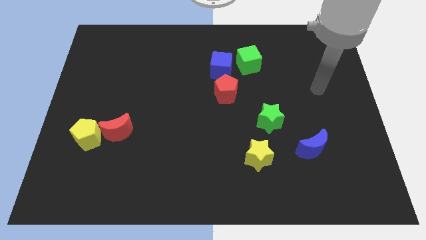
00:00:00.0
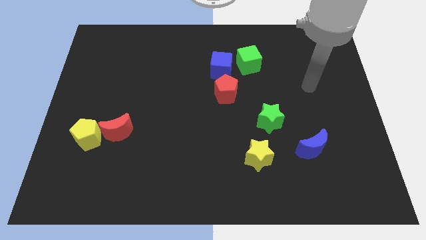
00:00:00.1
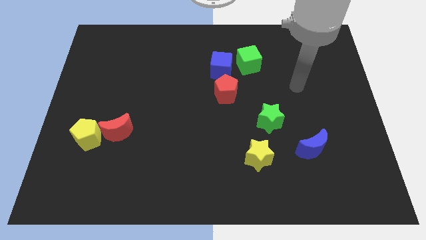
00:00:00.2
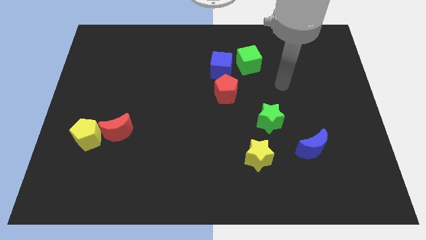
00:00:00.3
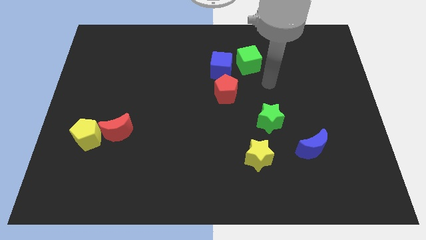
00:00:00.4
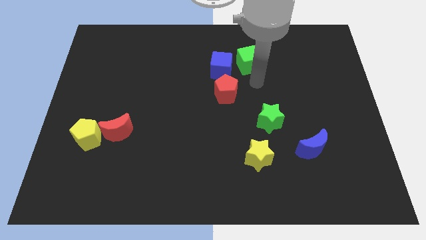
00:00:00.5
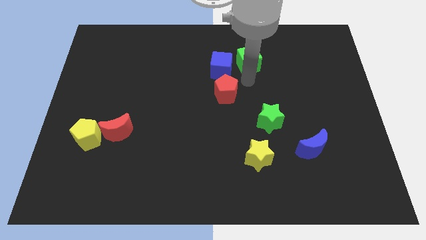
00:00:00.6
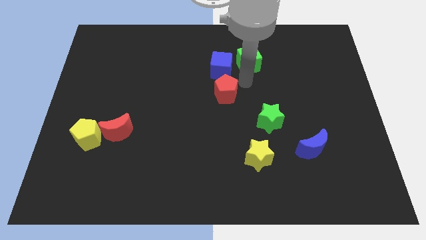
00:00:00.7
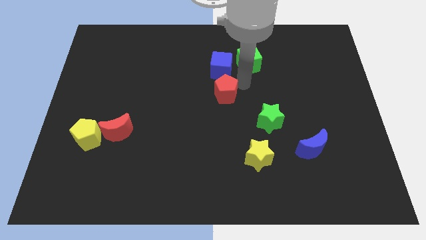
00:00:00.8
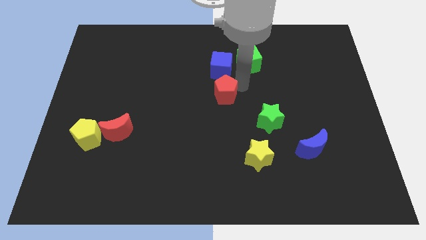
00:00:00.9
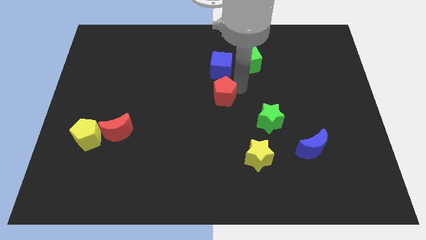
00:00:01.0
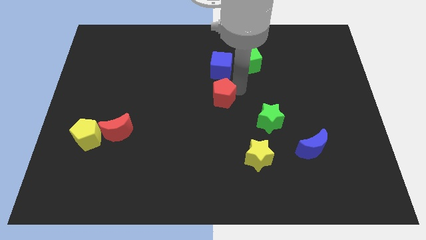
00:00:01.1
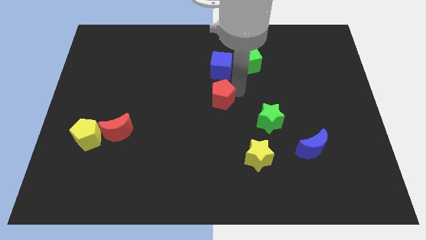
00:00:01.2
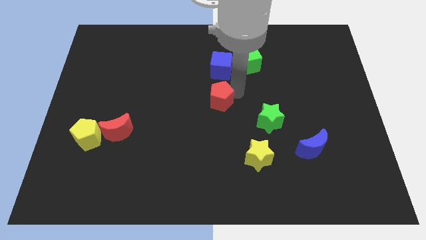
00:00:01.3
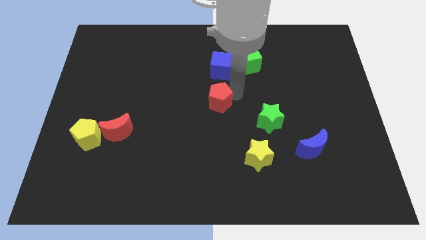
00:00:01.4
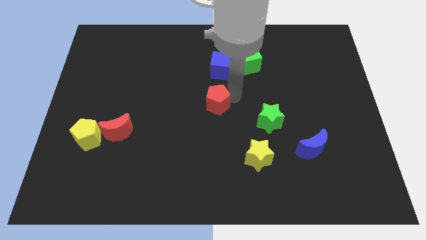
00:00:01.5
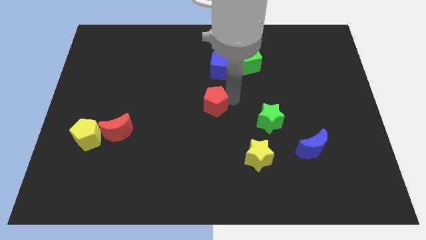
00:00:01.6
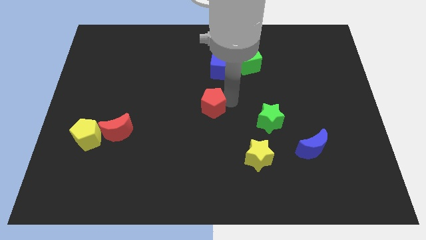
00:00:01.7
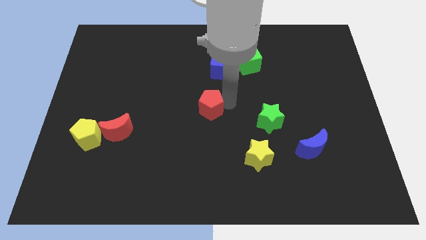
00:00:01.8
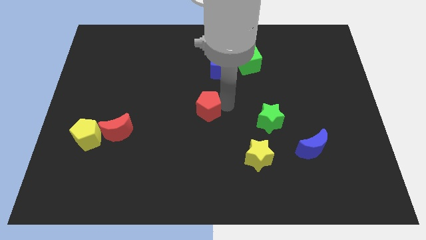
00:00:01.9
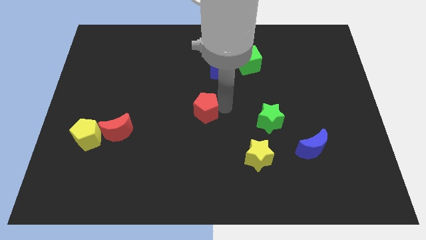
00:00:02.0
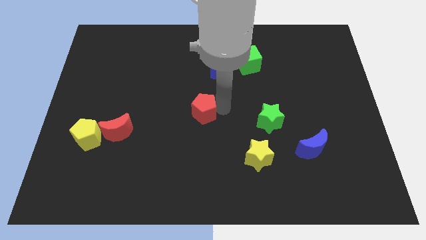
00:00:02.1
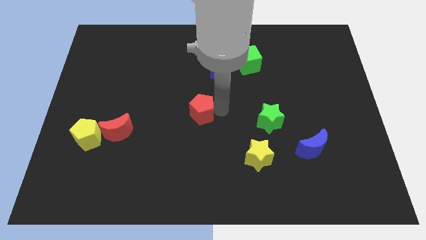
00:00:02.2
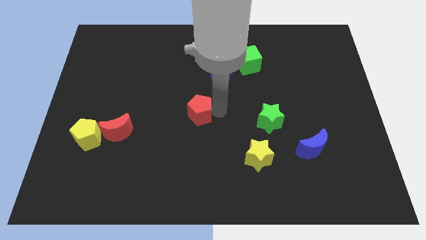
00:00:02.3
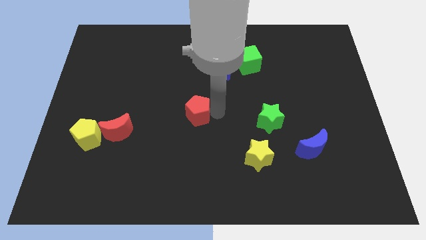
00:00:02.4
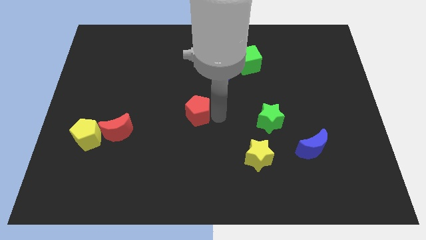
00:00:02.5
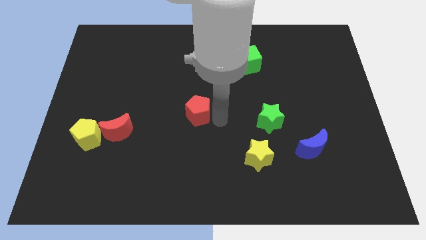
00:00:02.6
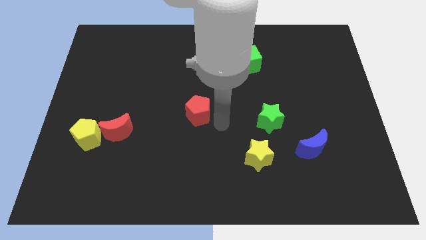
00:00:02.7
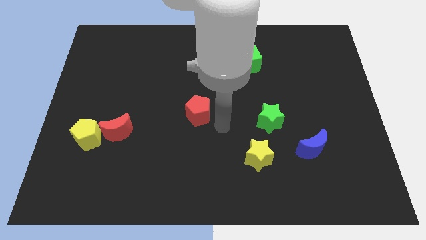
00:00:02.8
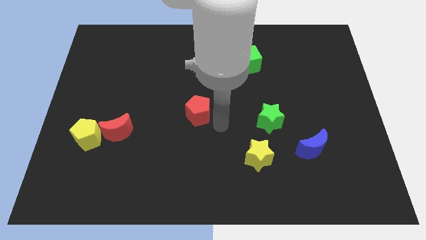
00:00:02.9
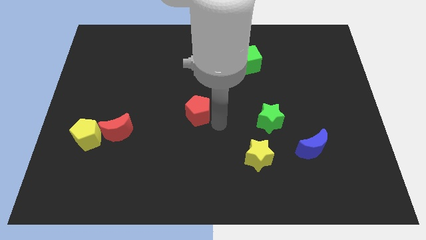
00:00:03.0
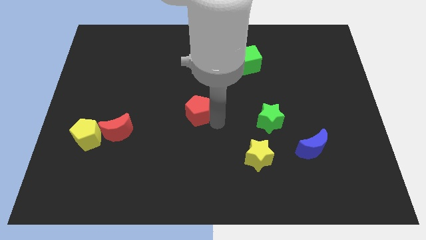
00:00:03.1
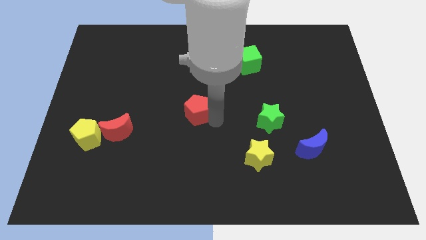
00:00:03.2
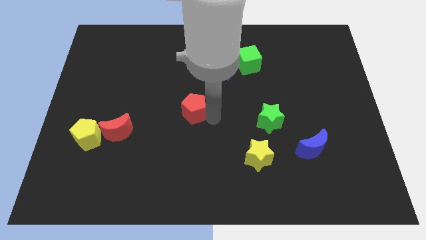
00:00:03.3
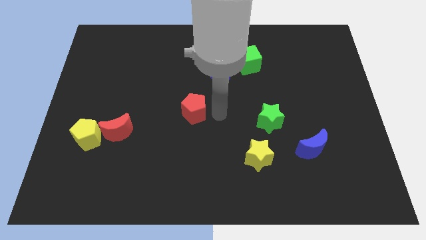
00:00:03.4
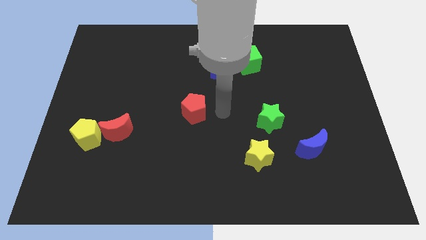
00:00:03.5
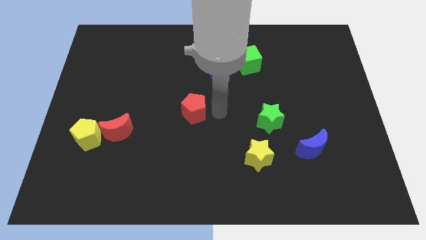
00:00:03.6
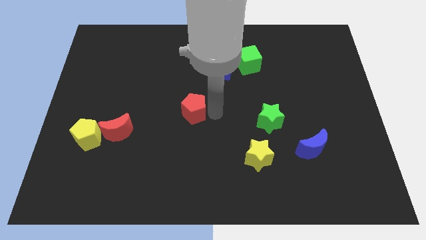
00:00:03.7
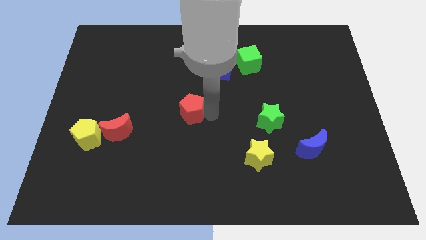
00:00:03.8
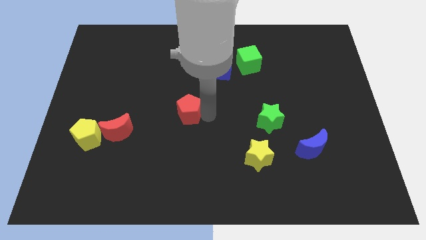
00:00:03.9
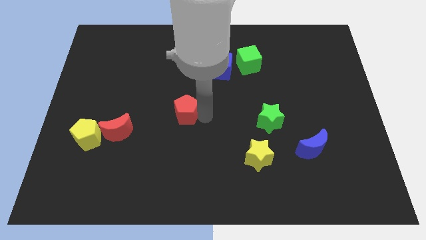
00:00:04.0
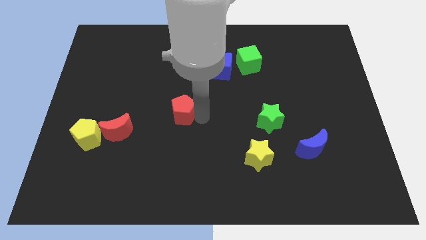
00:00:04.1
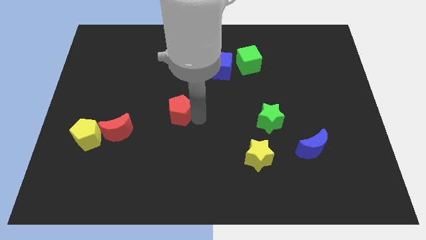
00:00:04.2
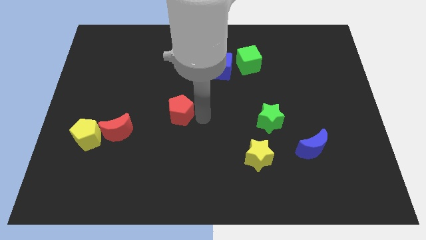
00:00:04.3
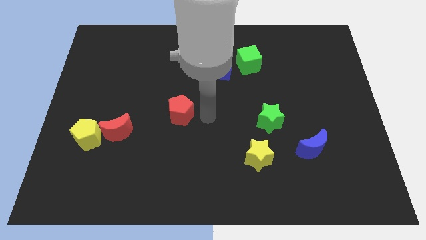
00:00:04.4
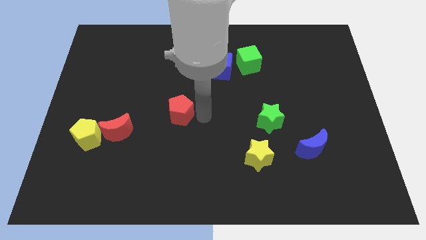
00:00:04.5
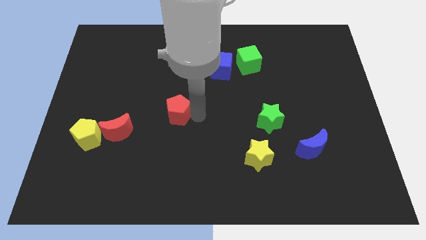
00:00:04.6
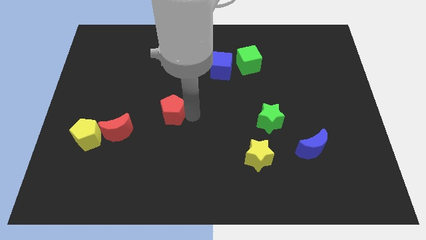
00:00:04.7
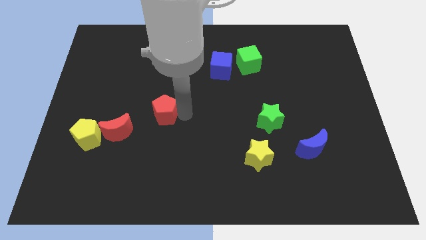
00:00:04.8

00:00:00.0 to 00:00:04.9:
slide the red pentagon to the top right side of the red moon

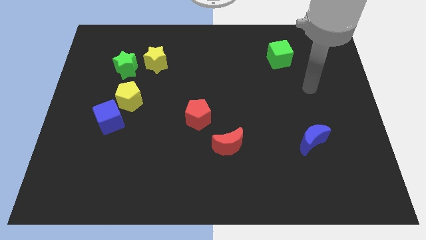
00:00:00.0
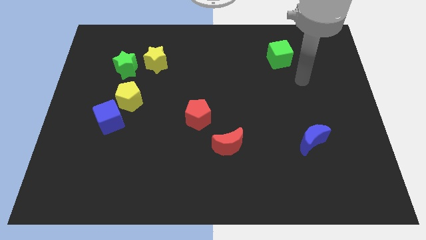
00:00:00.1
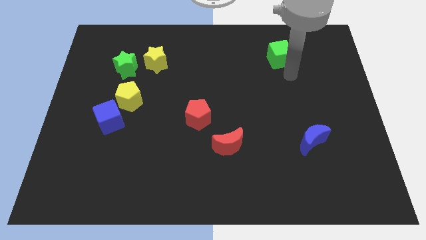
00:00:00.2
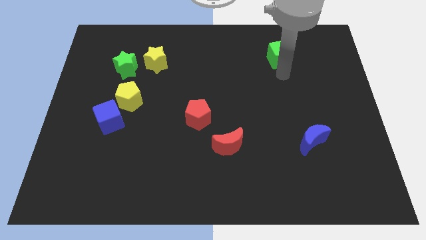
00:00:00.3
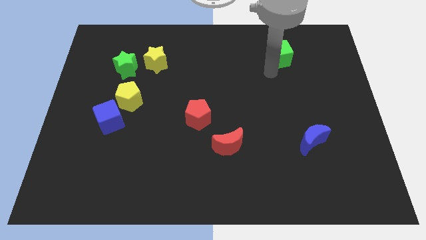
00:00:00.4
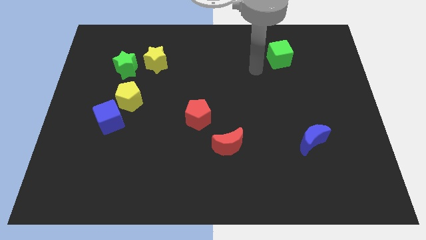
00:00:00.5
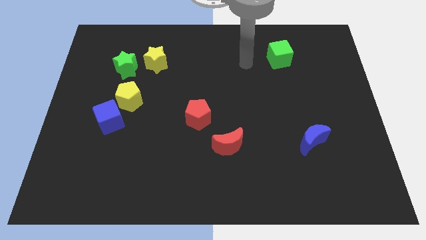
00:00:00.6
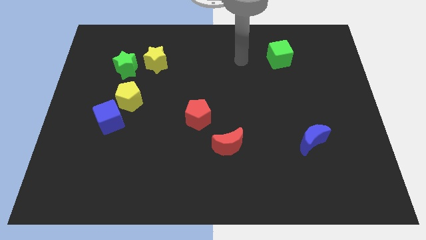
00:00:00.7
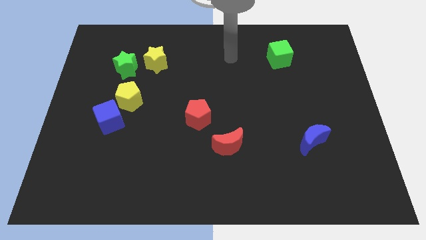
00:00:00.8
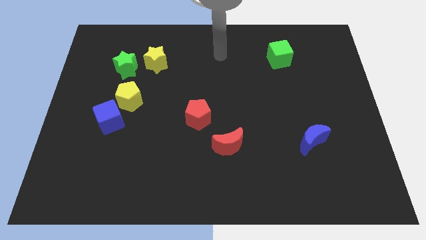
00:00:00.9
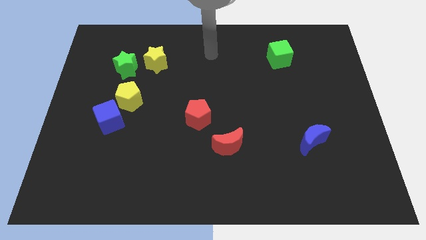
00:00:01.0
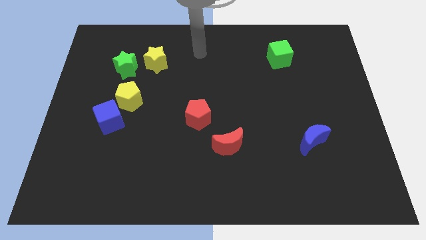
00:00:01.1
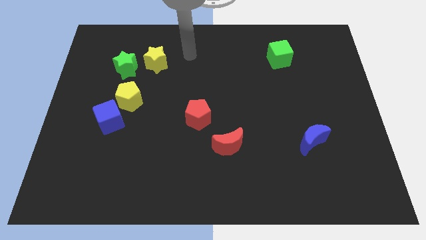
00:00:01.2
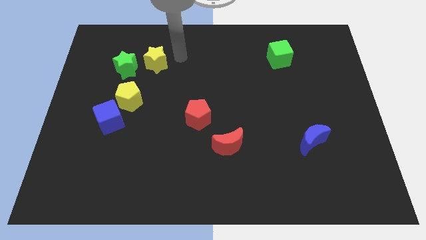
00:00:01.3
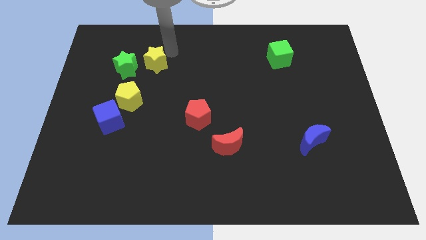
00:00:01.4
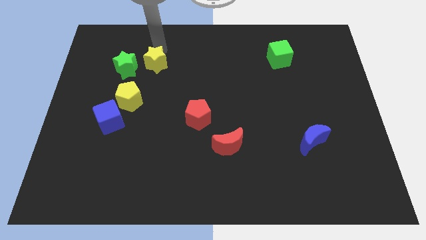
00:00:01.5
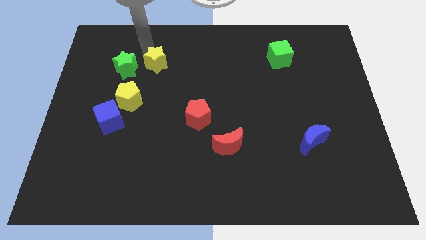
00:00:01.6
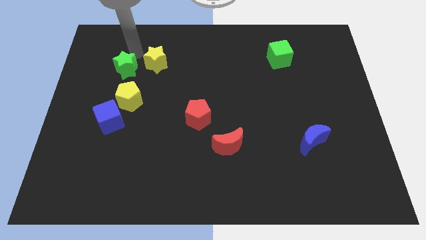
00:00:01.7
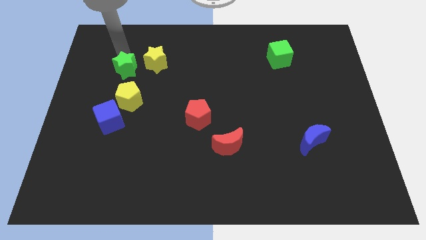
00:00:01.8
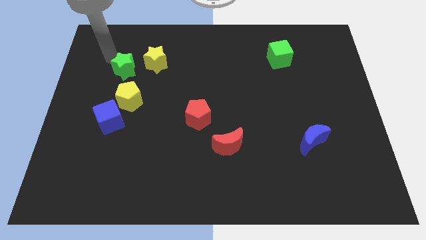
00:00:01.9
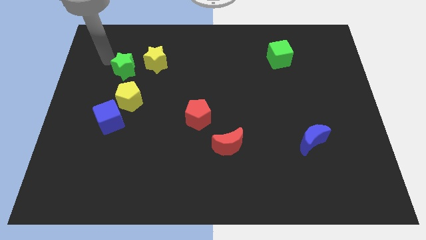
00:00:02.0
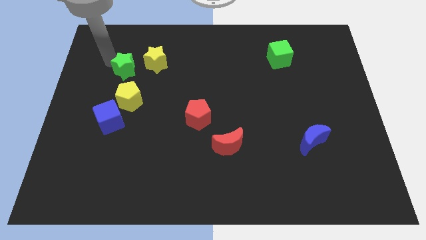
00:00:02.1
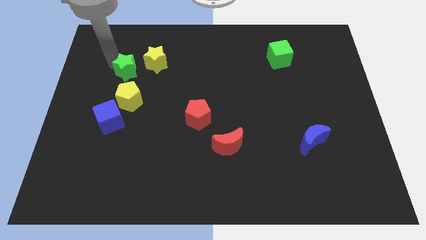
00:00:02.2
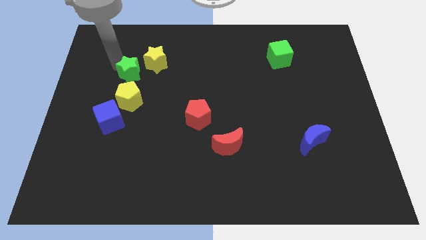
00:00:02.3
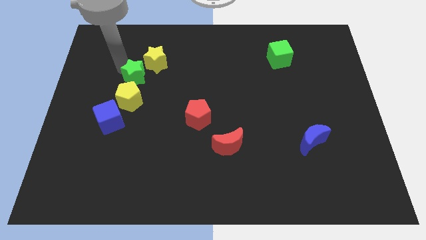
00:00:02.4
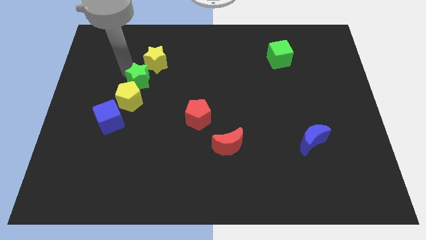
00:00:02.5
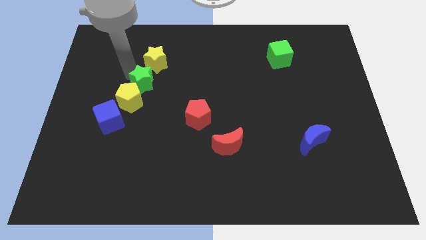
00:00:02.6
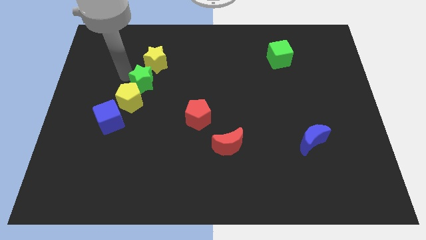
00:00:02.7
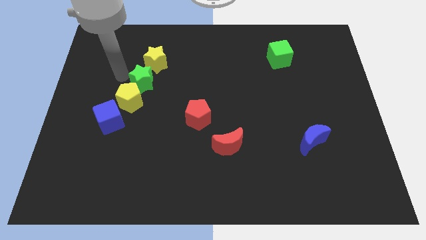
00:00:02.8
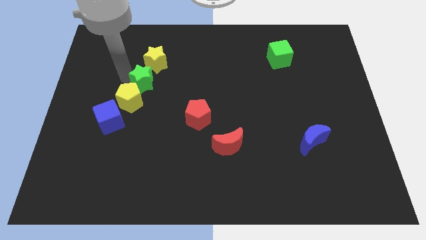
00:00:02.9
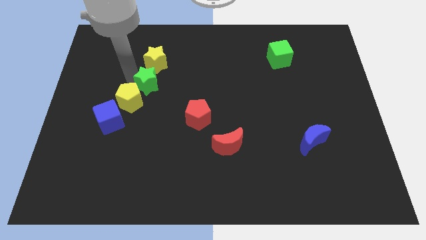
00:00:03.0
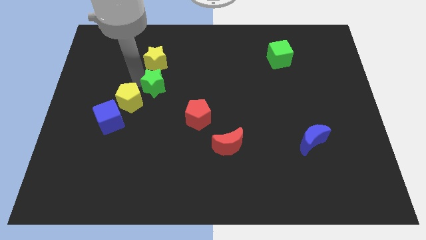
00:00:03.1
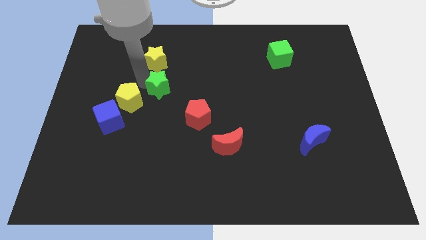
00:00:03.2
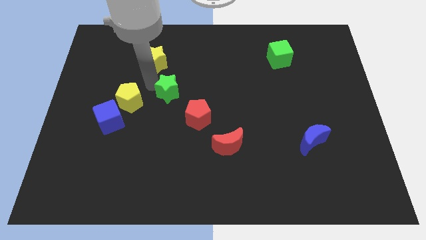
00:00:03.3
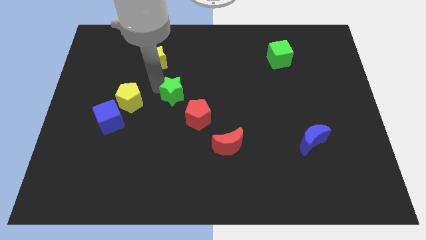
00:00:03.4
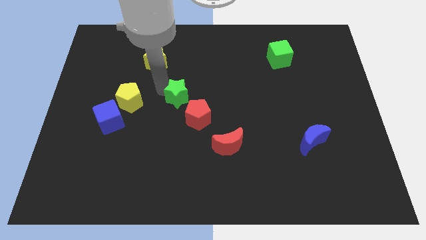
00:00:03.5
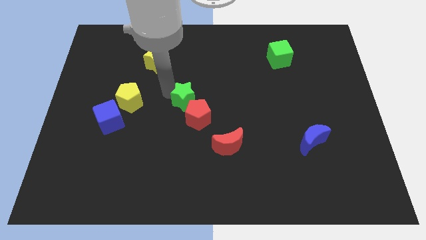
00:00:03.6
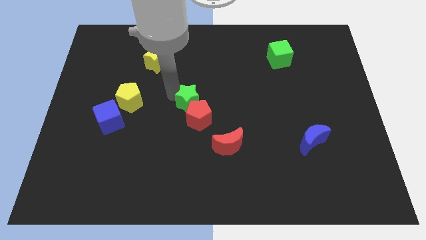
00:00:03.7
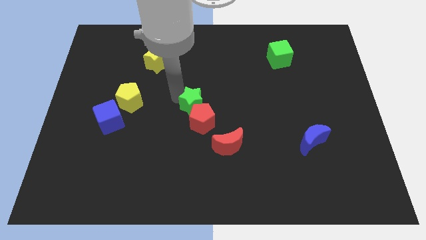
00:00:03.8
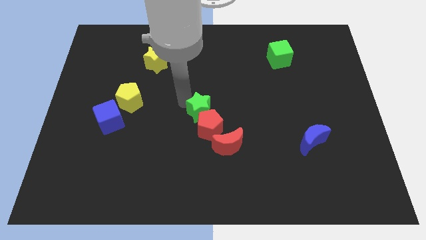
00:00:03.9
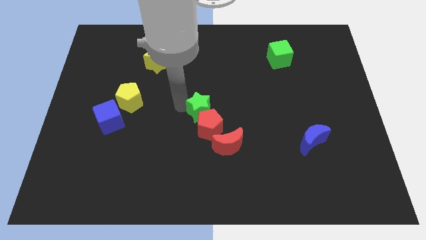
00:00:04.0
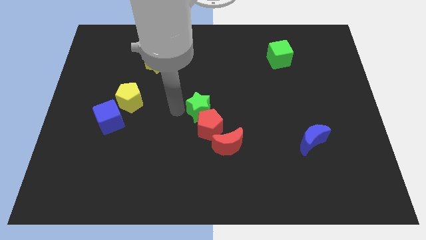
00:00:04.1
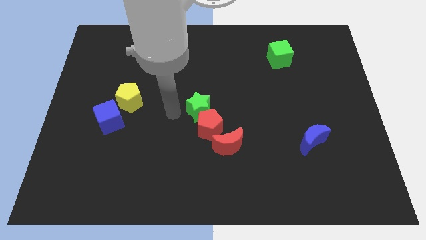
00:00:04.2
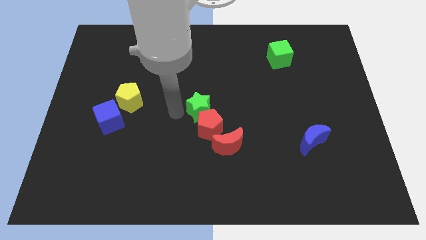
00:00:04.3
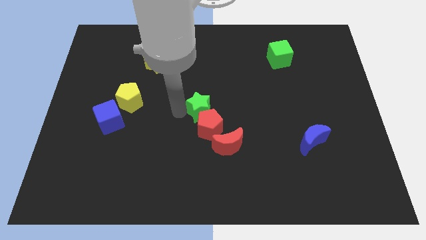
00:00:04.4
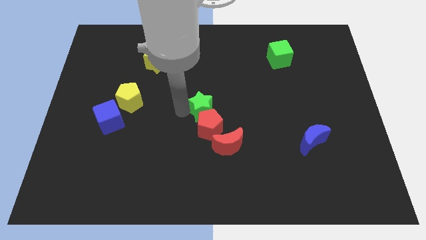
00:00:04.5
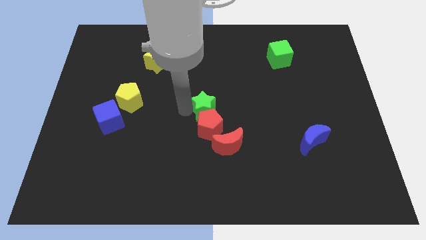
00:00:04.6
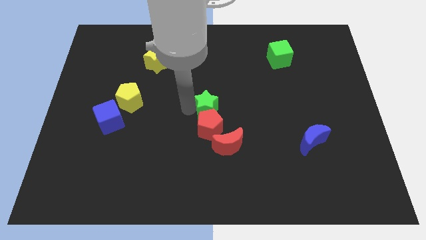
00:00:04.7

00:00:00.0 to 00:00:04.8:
put the green star to the top side of the red moon
